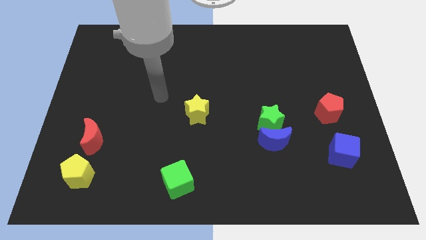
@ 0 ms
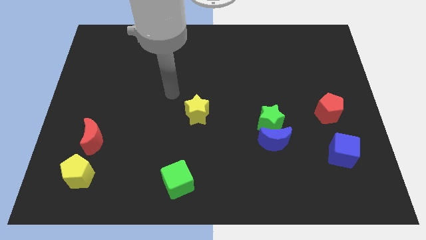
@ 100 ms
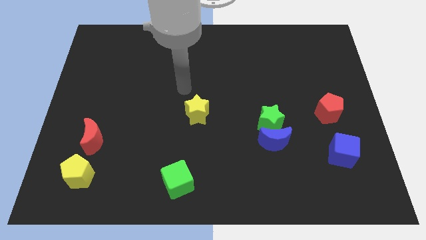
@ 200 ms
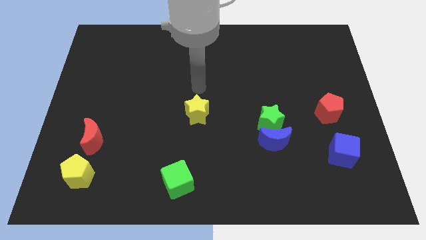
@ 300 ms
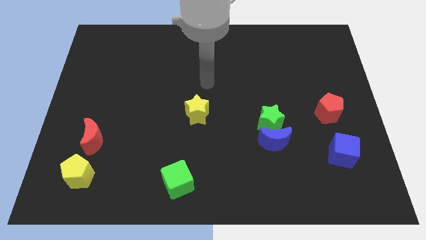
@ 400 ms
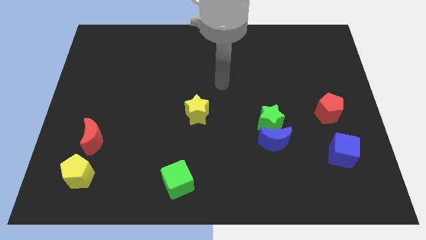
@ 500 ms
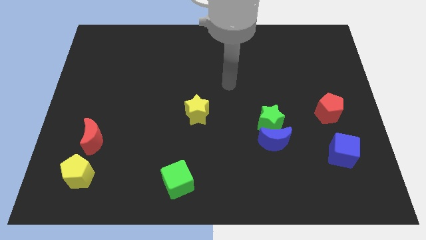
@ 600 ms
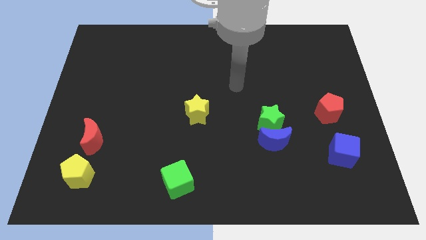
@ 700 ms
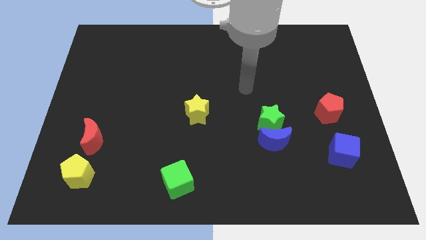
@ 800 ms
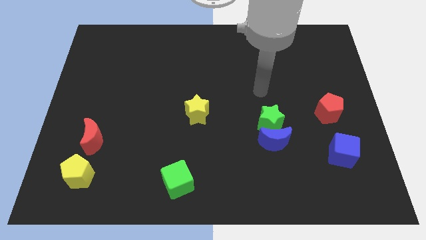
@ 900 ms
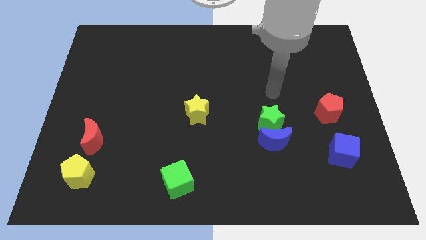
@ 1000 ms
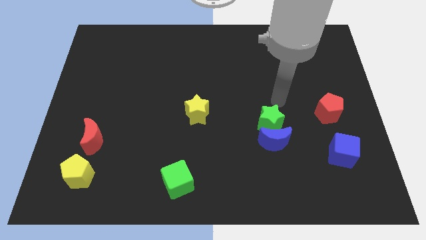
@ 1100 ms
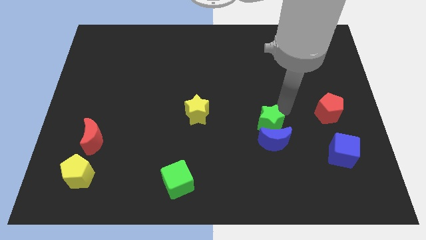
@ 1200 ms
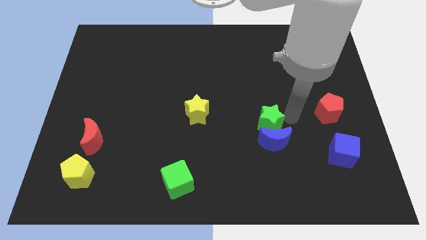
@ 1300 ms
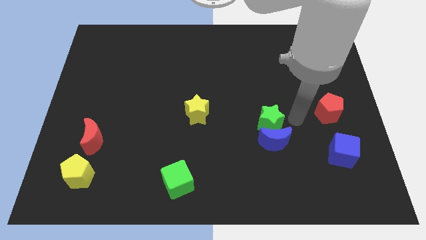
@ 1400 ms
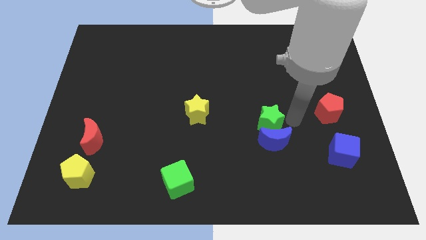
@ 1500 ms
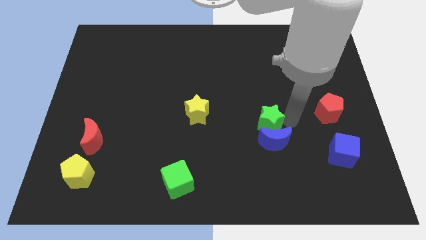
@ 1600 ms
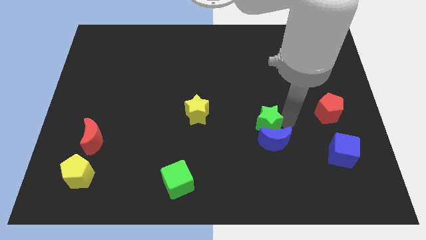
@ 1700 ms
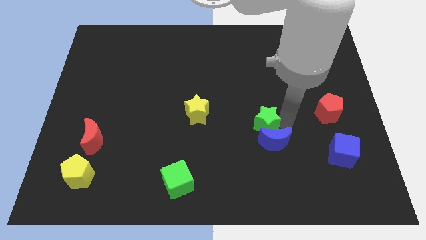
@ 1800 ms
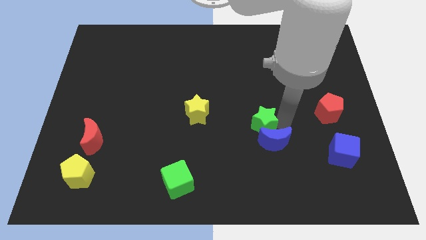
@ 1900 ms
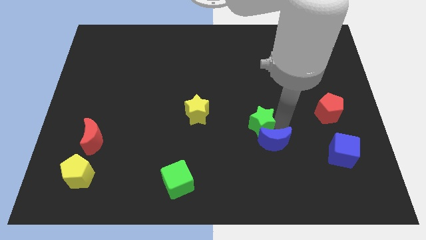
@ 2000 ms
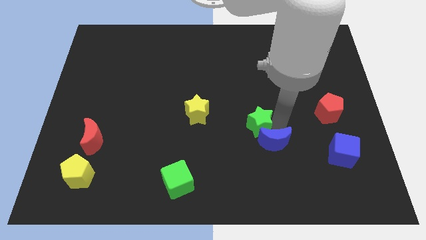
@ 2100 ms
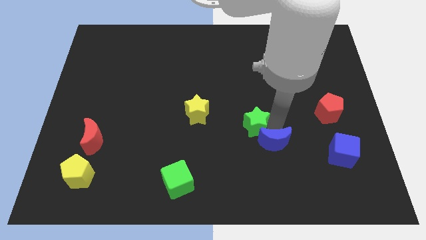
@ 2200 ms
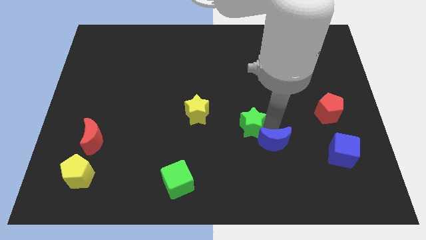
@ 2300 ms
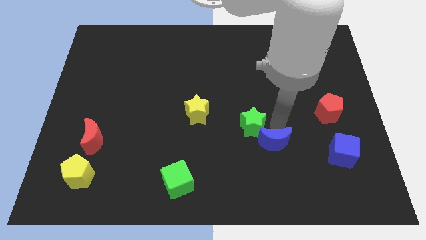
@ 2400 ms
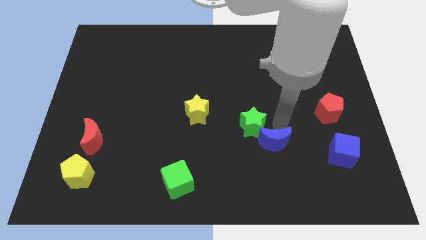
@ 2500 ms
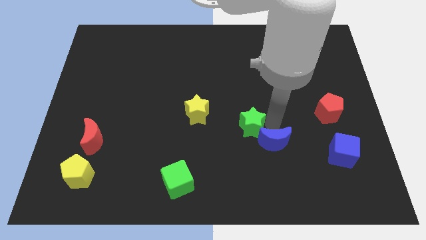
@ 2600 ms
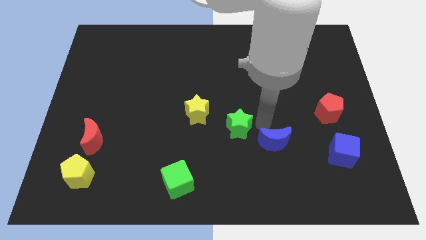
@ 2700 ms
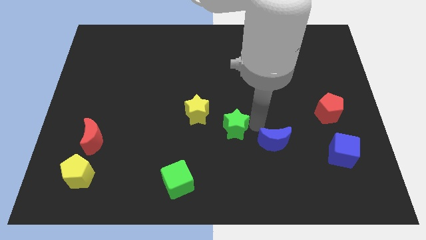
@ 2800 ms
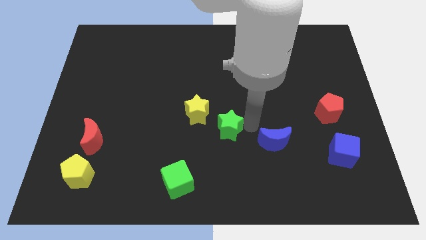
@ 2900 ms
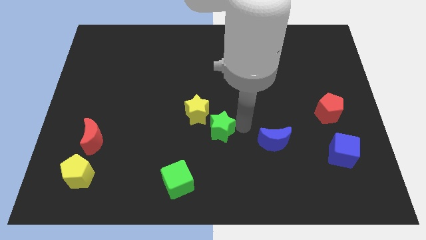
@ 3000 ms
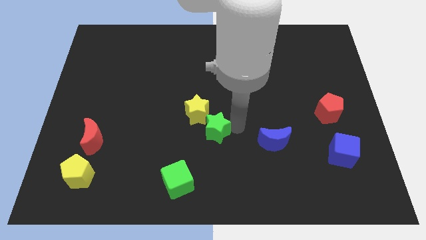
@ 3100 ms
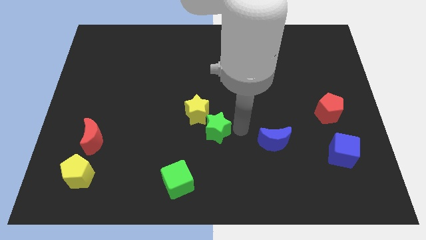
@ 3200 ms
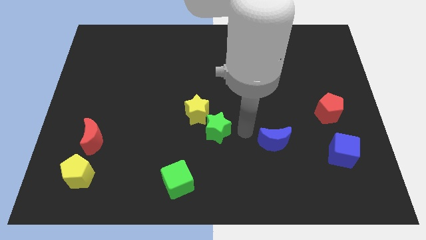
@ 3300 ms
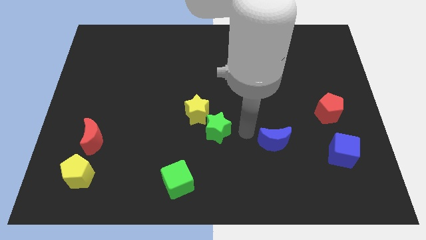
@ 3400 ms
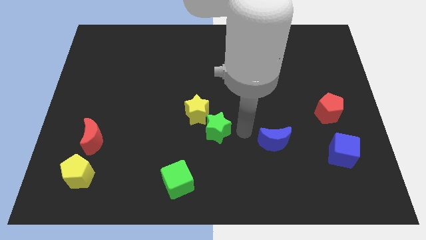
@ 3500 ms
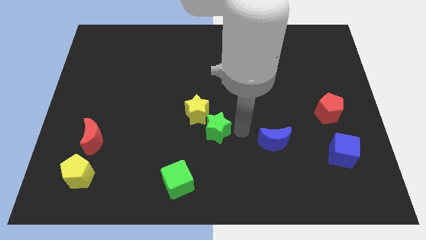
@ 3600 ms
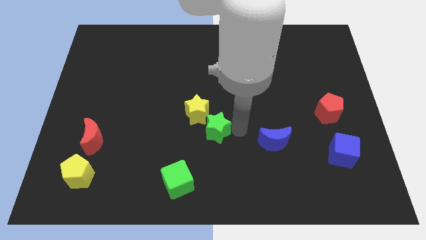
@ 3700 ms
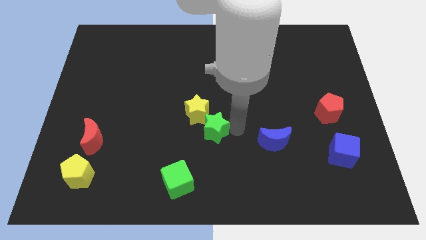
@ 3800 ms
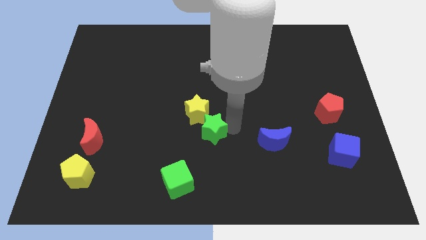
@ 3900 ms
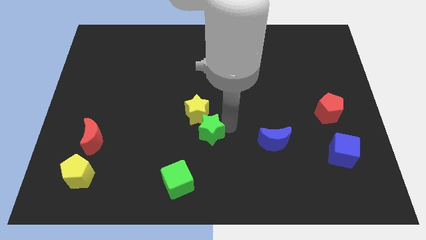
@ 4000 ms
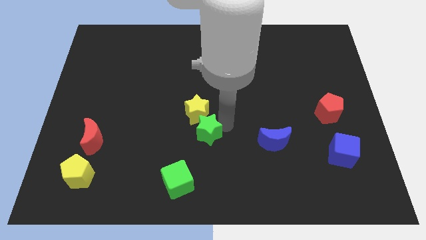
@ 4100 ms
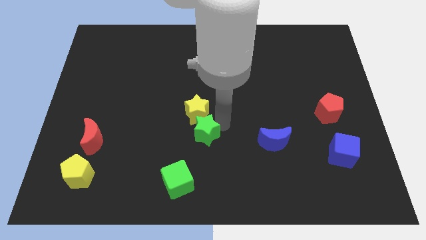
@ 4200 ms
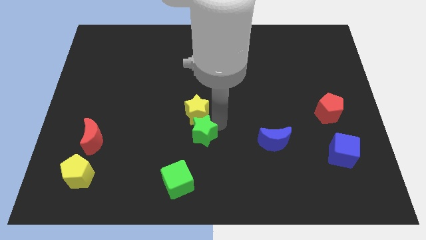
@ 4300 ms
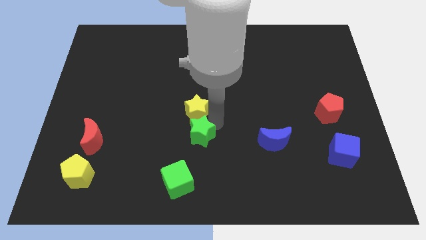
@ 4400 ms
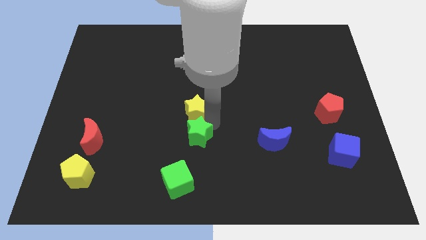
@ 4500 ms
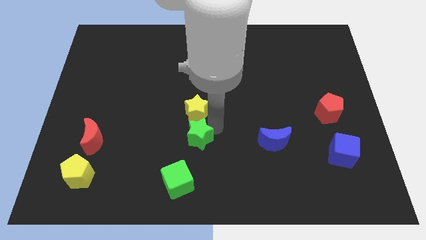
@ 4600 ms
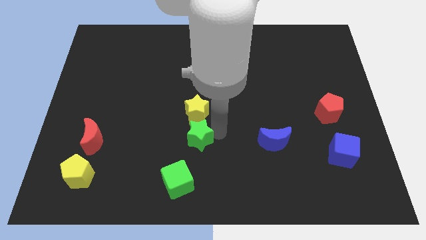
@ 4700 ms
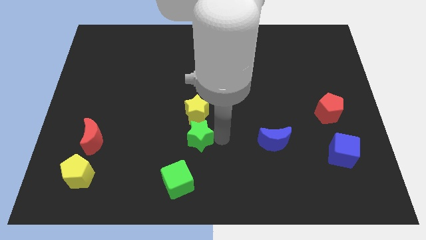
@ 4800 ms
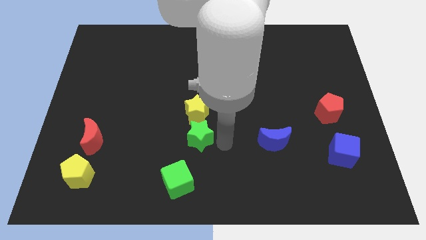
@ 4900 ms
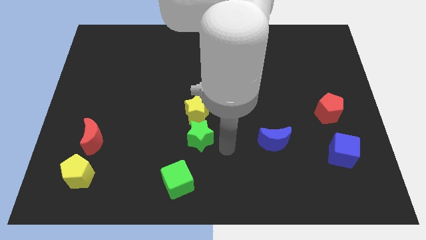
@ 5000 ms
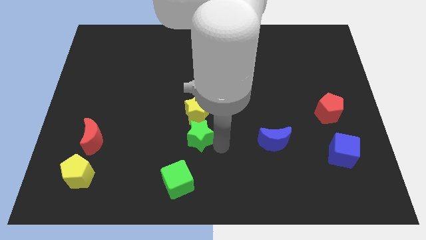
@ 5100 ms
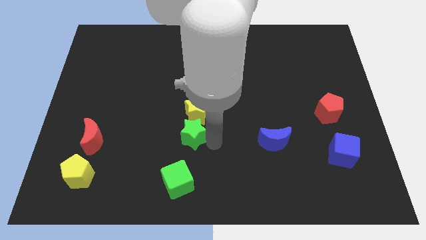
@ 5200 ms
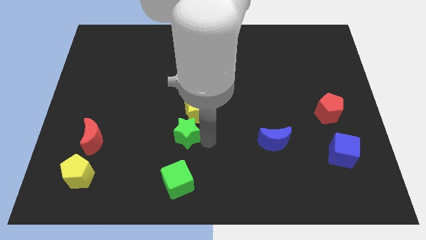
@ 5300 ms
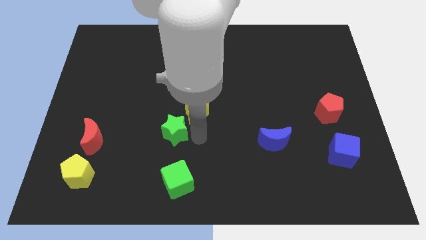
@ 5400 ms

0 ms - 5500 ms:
slide the green star left

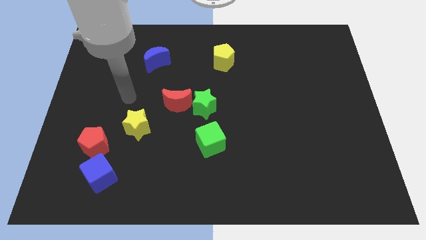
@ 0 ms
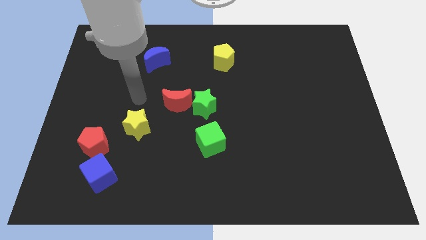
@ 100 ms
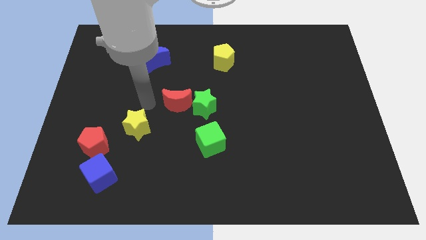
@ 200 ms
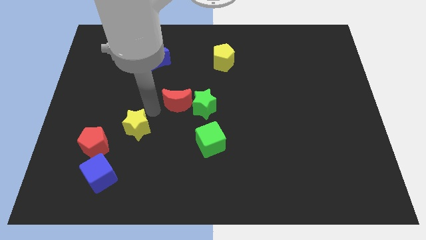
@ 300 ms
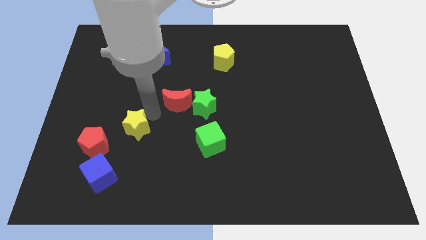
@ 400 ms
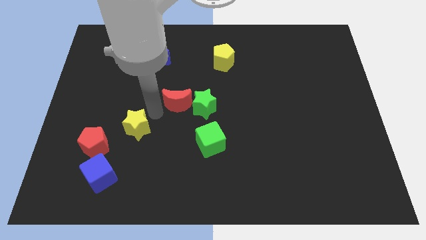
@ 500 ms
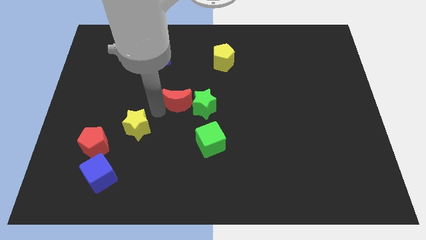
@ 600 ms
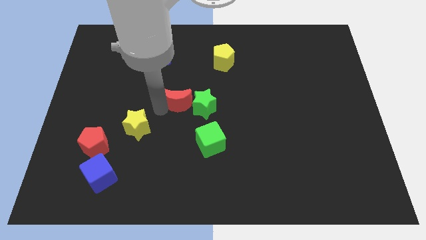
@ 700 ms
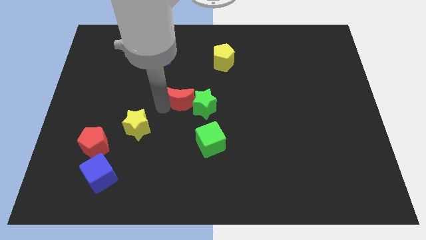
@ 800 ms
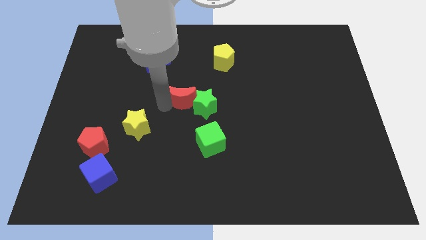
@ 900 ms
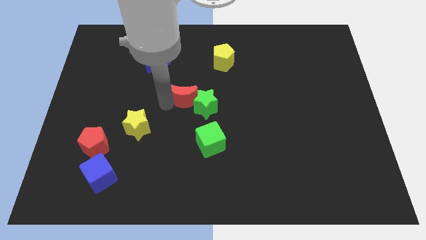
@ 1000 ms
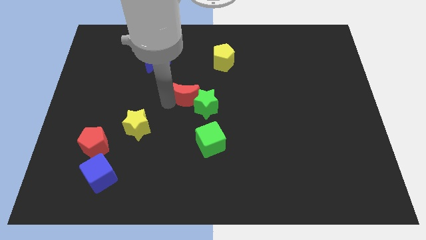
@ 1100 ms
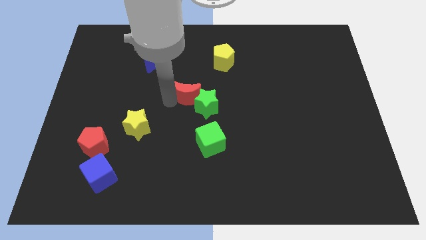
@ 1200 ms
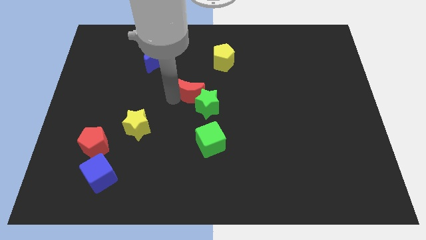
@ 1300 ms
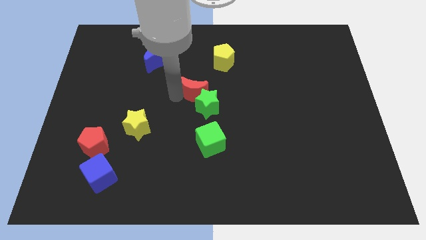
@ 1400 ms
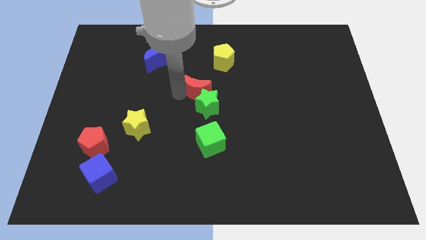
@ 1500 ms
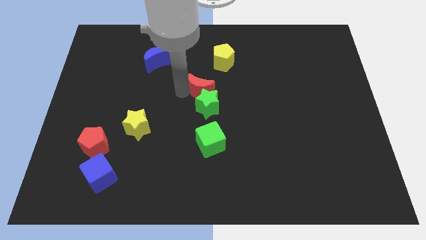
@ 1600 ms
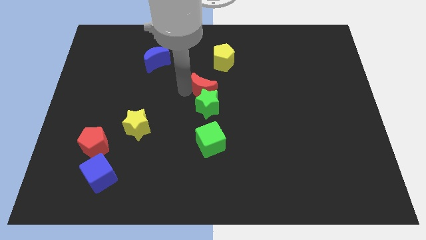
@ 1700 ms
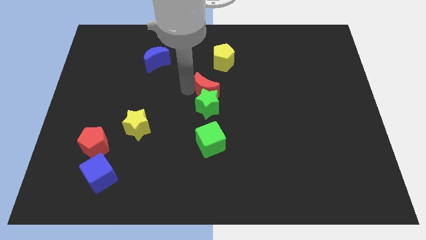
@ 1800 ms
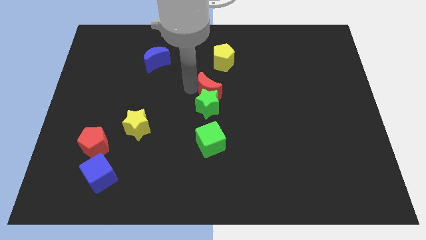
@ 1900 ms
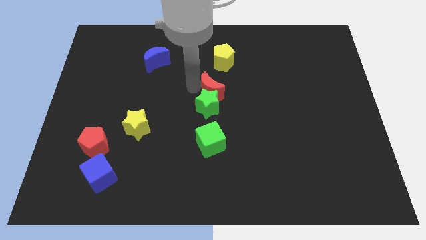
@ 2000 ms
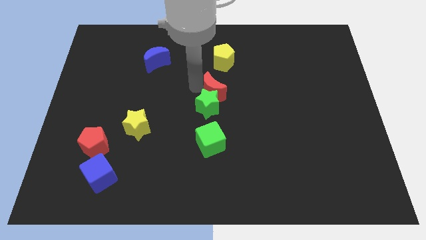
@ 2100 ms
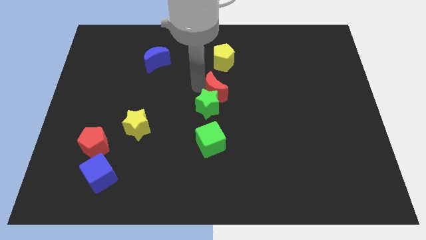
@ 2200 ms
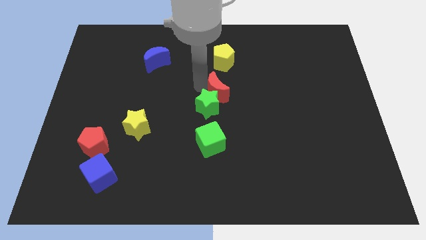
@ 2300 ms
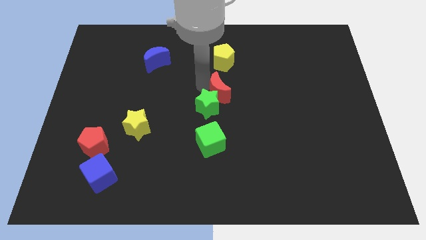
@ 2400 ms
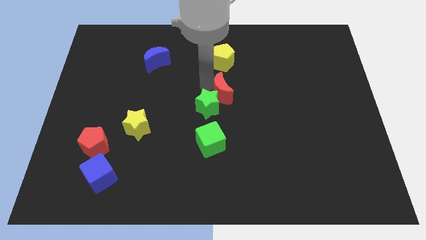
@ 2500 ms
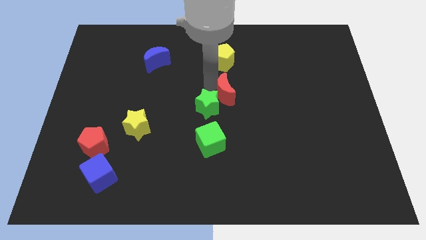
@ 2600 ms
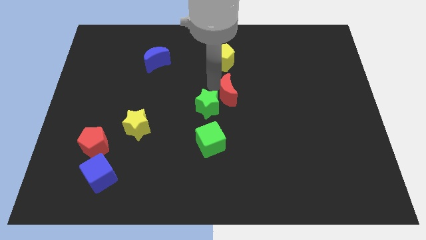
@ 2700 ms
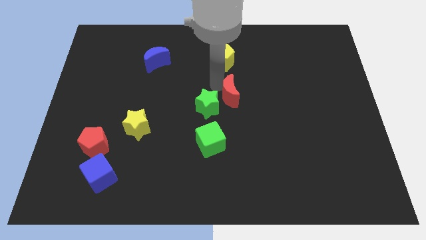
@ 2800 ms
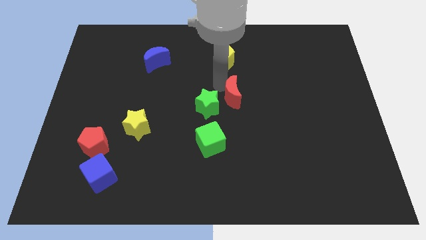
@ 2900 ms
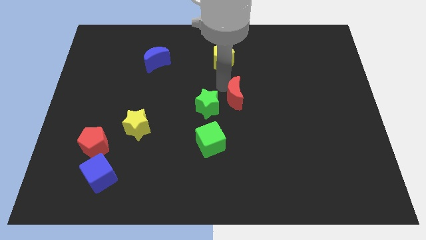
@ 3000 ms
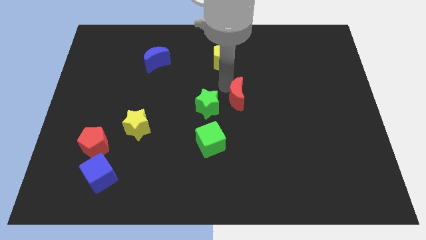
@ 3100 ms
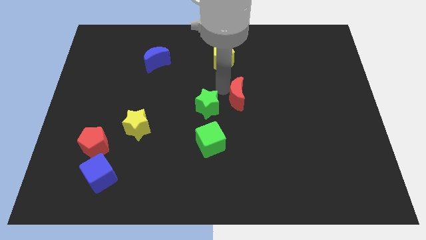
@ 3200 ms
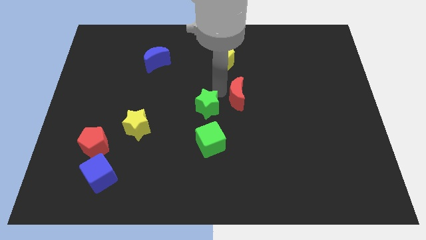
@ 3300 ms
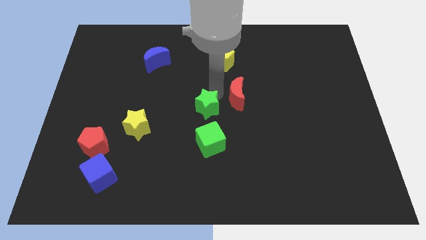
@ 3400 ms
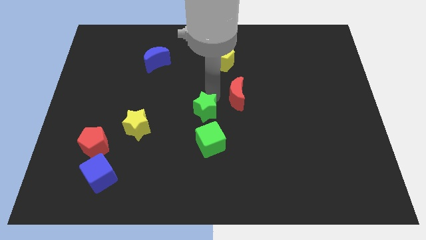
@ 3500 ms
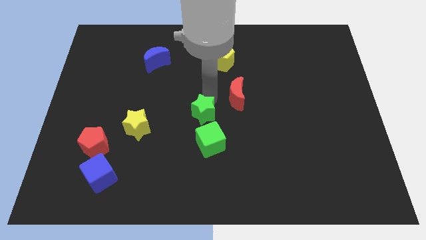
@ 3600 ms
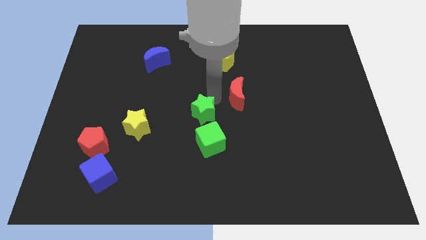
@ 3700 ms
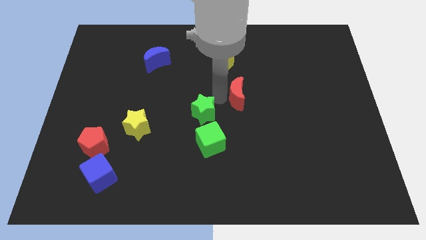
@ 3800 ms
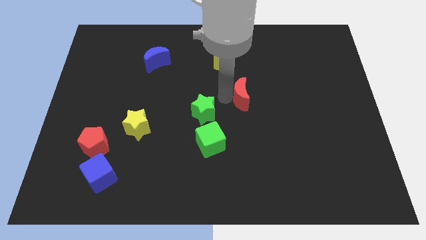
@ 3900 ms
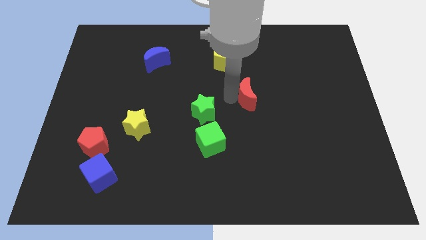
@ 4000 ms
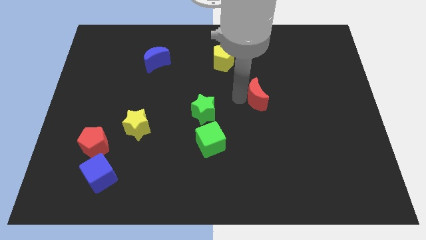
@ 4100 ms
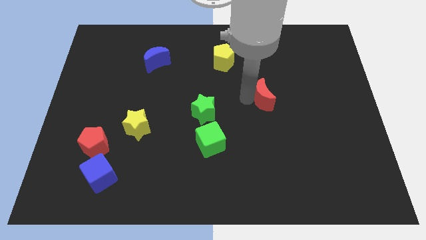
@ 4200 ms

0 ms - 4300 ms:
push the red moon right
